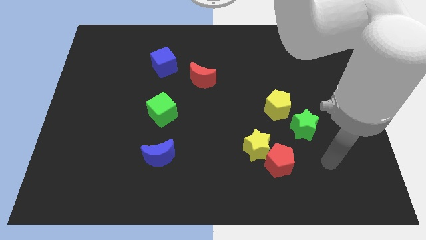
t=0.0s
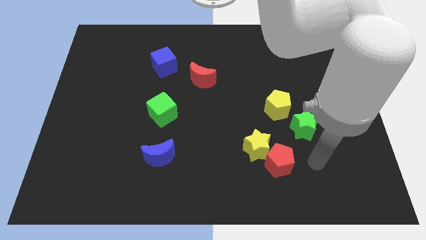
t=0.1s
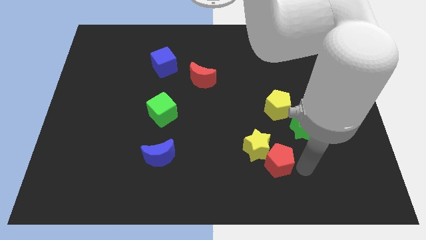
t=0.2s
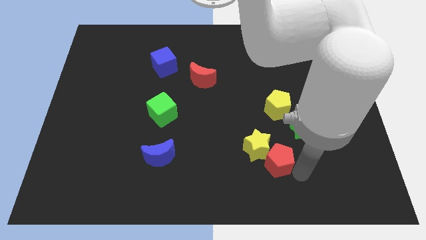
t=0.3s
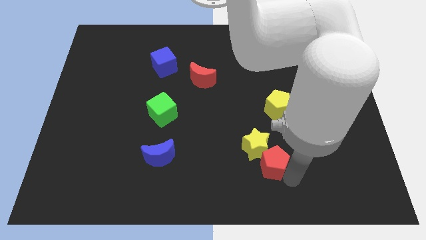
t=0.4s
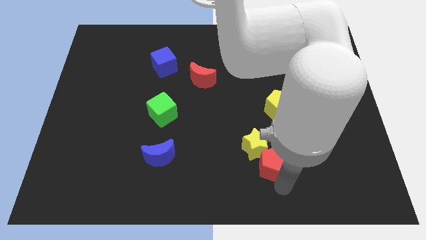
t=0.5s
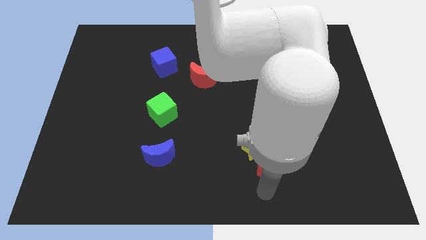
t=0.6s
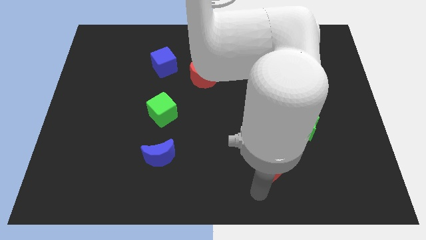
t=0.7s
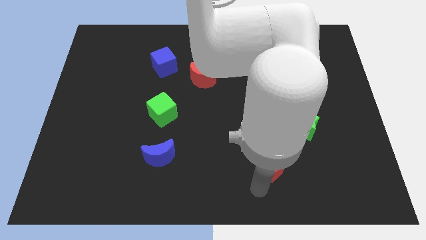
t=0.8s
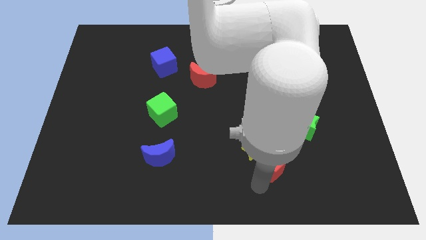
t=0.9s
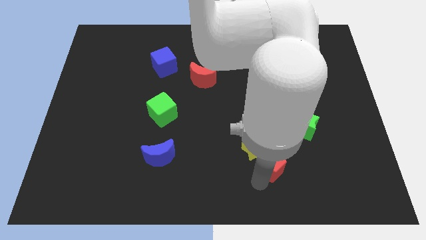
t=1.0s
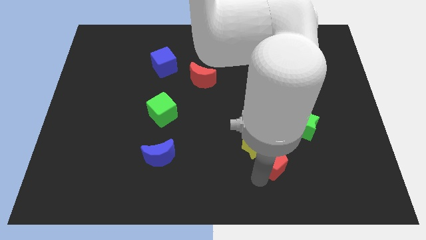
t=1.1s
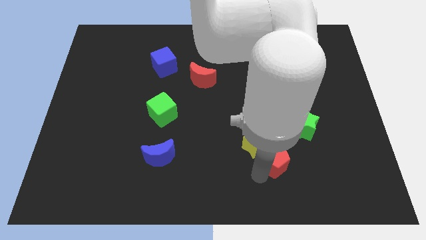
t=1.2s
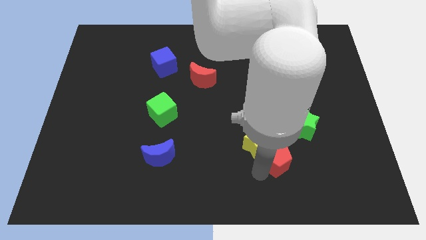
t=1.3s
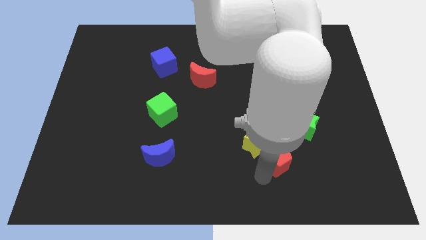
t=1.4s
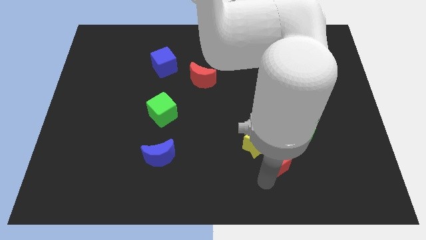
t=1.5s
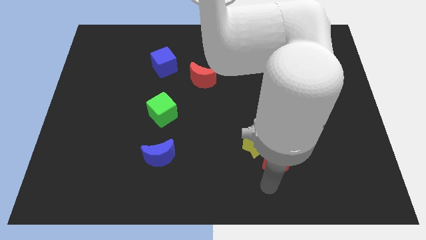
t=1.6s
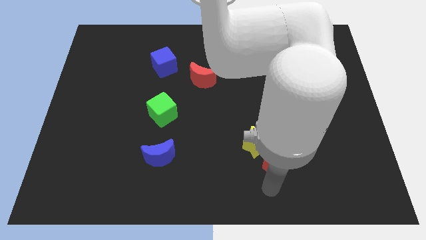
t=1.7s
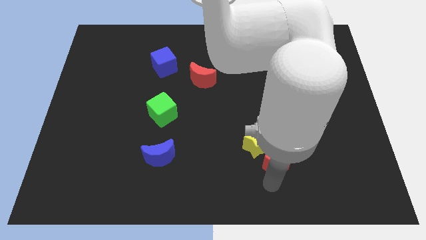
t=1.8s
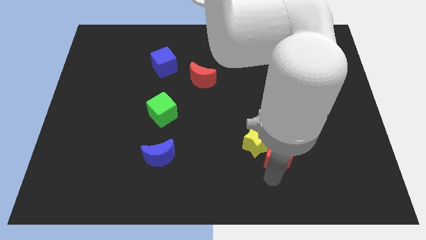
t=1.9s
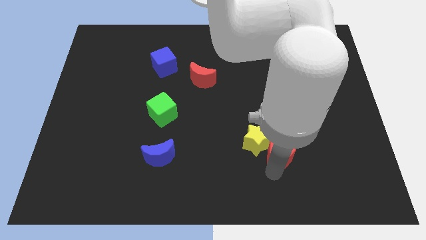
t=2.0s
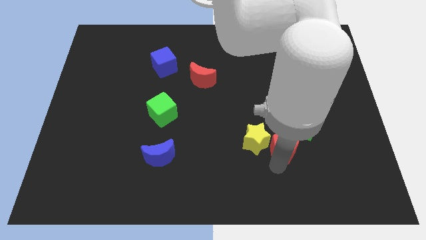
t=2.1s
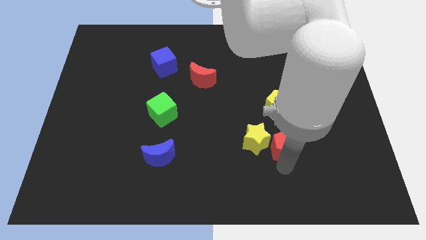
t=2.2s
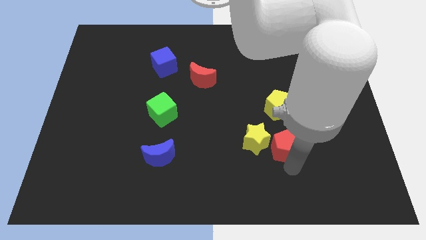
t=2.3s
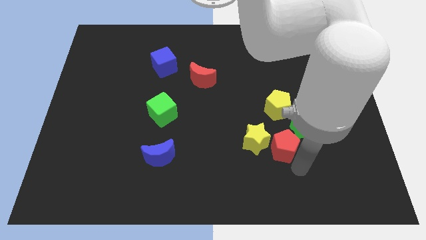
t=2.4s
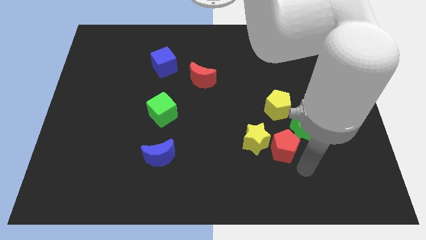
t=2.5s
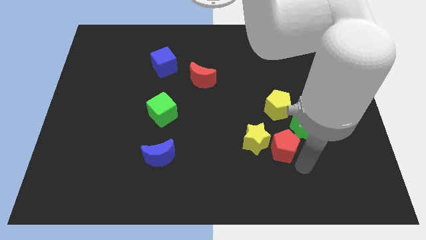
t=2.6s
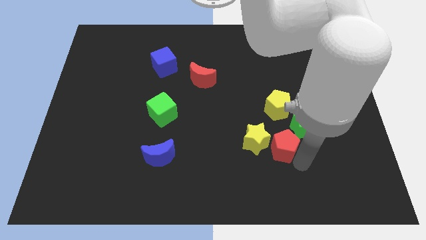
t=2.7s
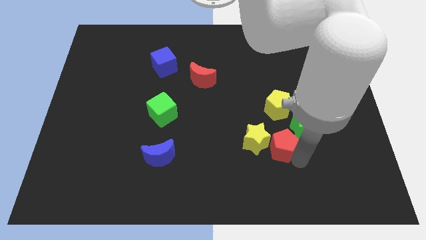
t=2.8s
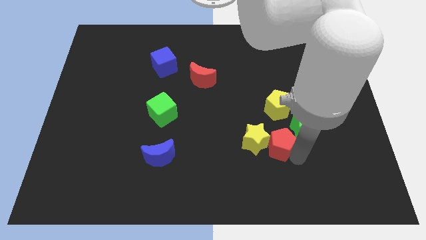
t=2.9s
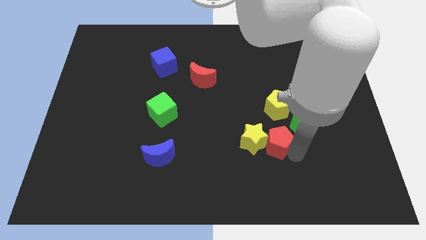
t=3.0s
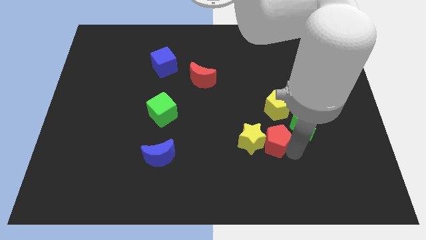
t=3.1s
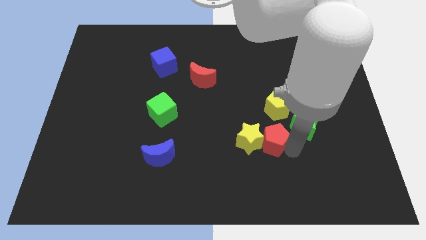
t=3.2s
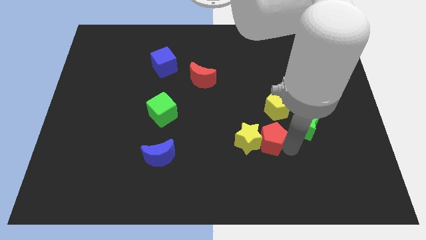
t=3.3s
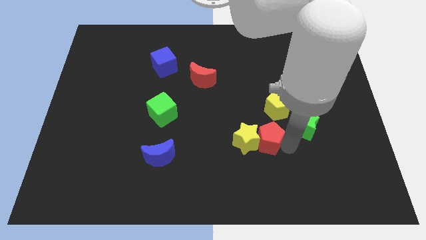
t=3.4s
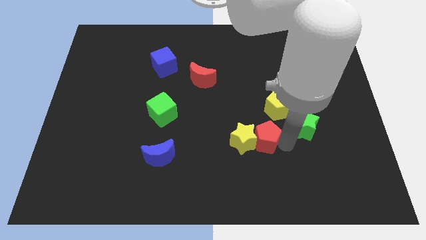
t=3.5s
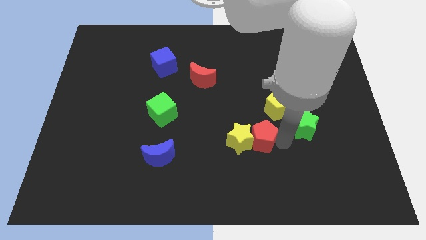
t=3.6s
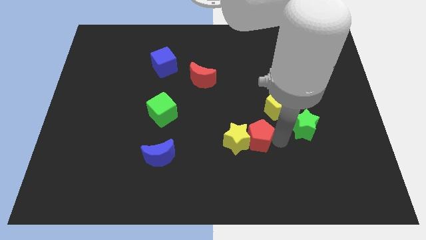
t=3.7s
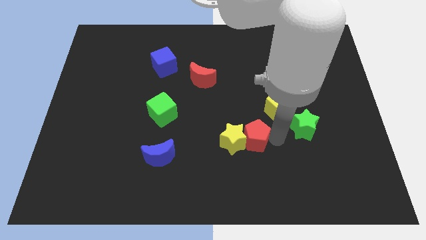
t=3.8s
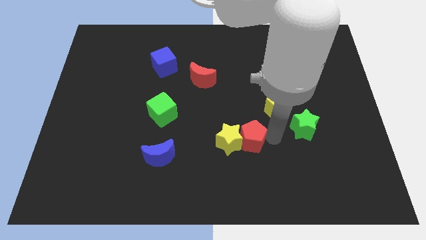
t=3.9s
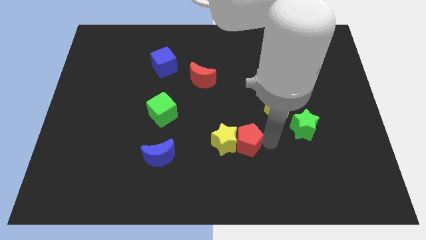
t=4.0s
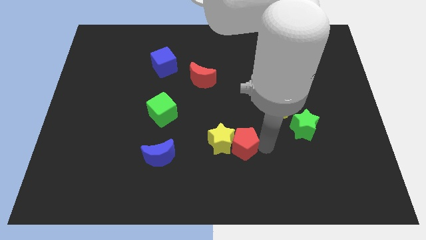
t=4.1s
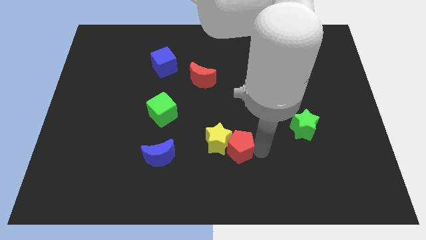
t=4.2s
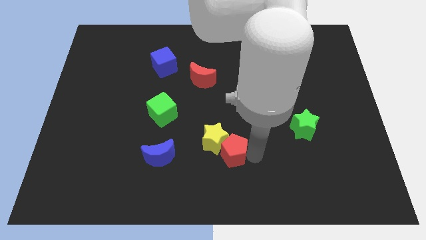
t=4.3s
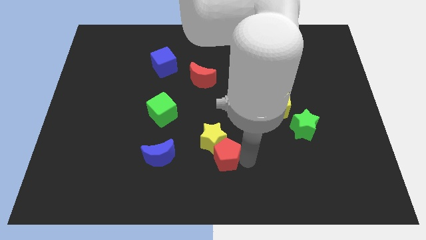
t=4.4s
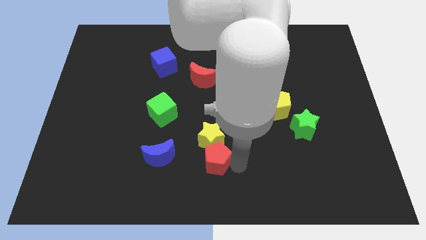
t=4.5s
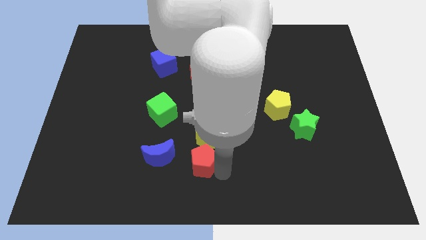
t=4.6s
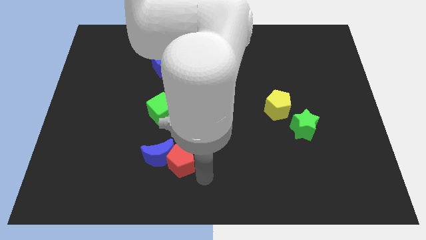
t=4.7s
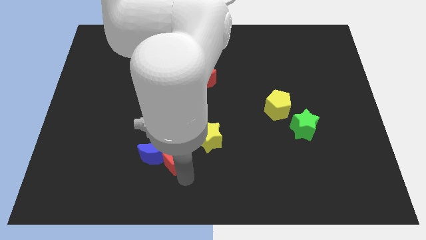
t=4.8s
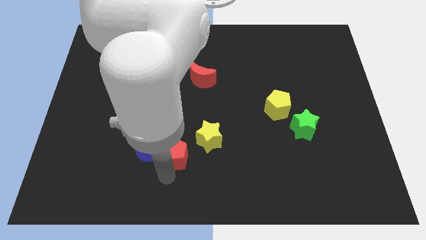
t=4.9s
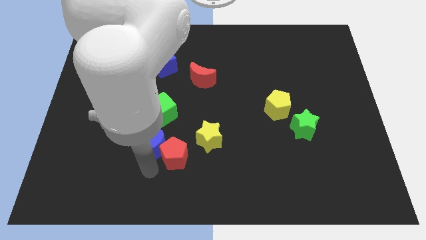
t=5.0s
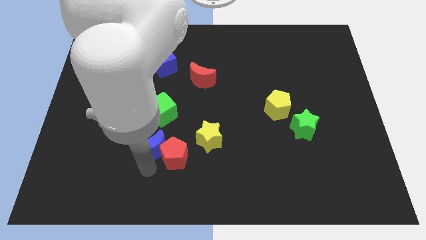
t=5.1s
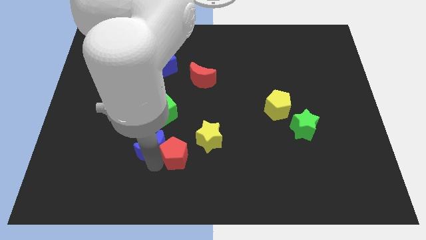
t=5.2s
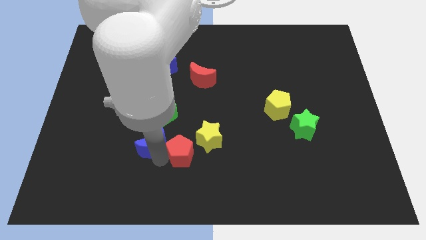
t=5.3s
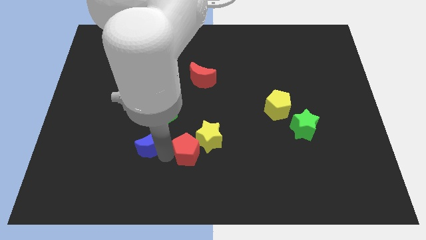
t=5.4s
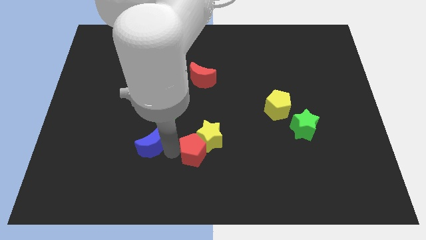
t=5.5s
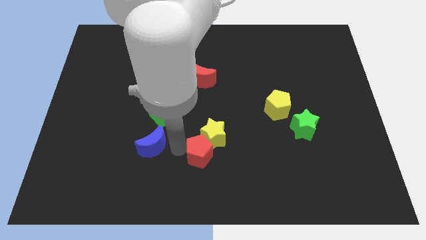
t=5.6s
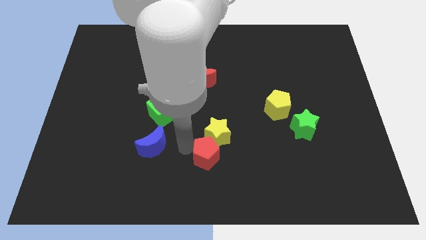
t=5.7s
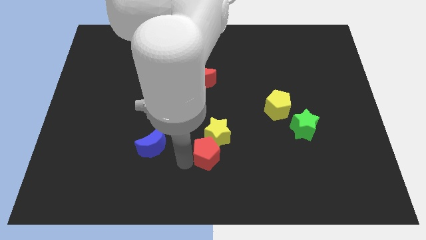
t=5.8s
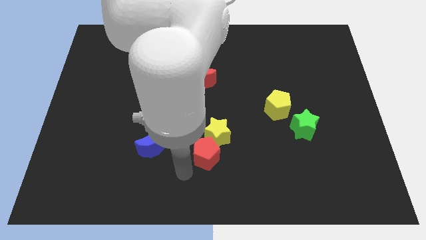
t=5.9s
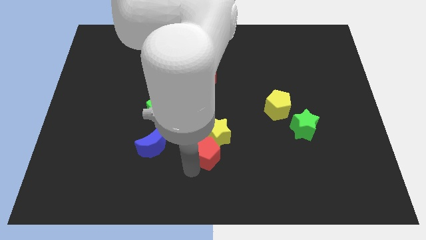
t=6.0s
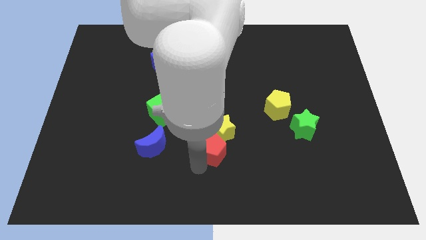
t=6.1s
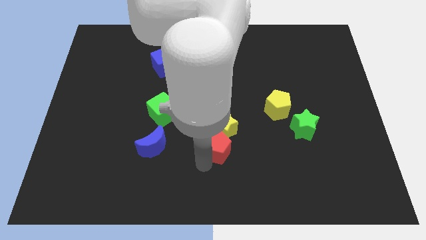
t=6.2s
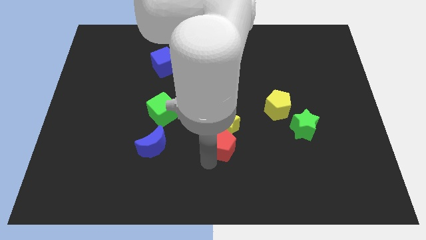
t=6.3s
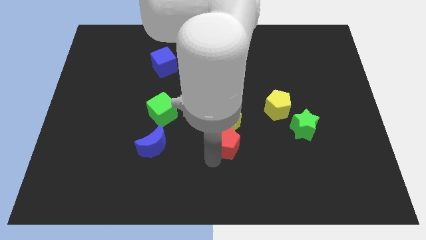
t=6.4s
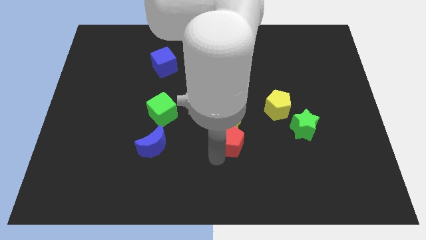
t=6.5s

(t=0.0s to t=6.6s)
put the red pentagon to the center
